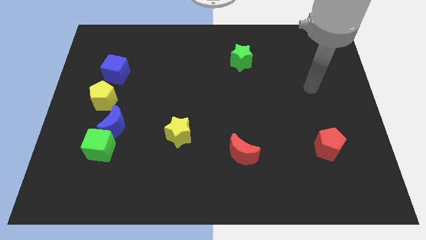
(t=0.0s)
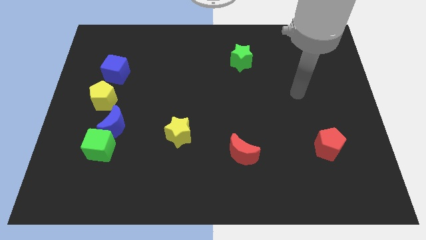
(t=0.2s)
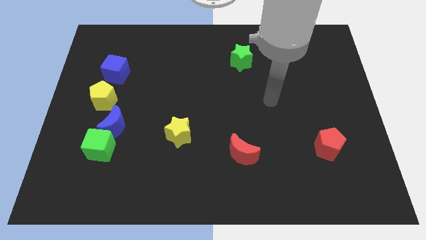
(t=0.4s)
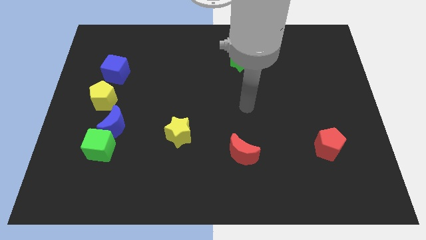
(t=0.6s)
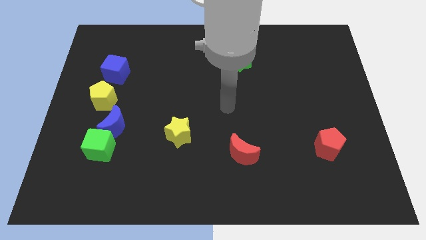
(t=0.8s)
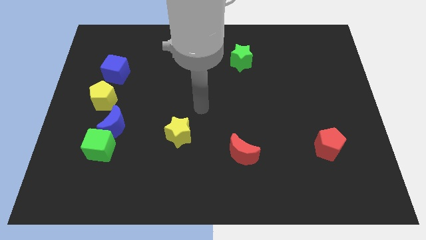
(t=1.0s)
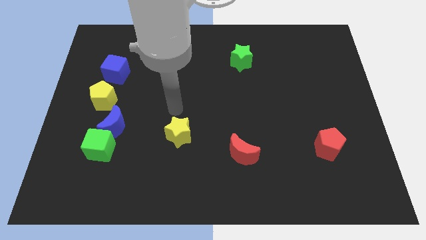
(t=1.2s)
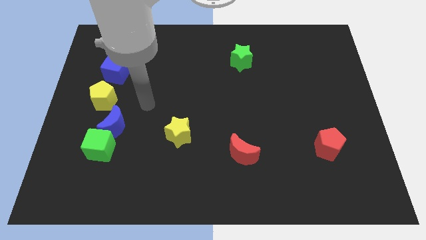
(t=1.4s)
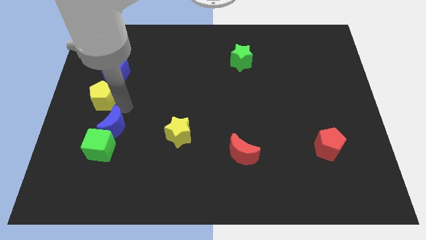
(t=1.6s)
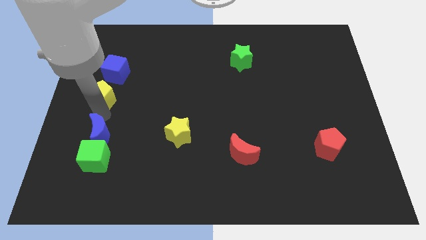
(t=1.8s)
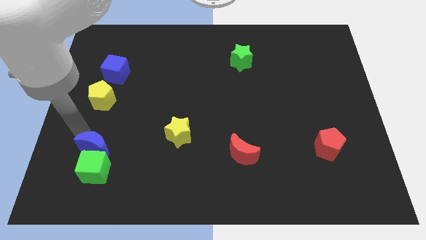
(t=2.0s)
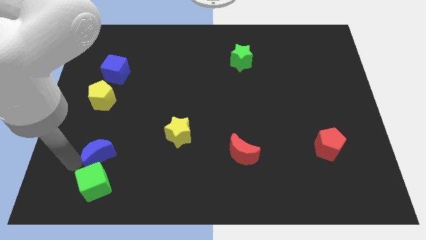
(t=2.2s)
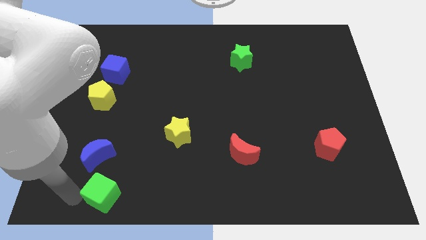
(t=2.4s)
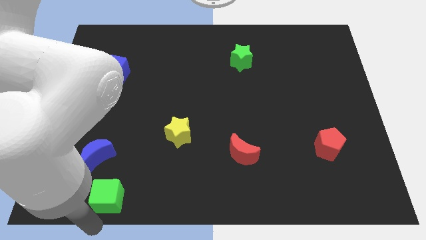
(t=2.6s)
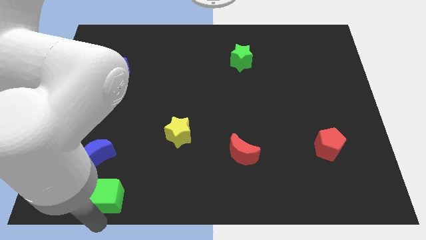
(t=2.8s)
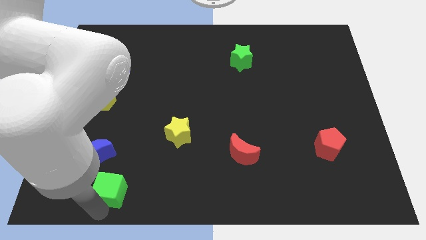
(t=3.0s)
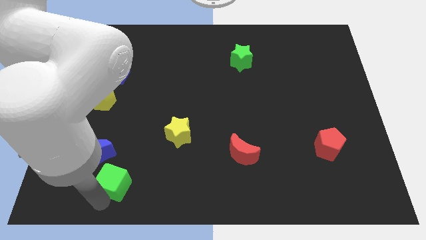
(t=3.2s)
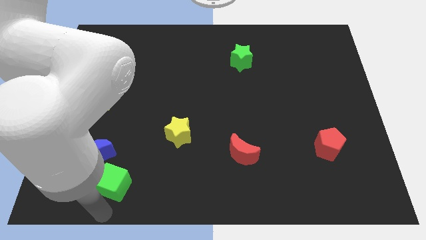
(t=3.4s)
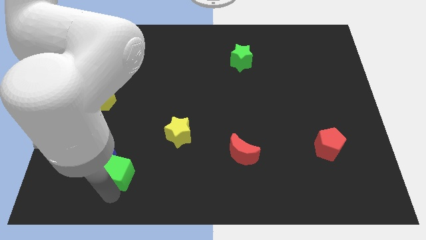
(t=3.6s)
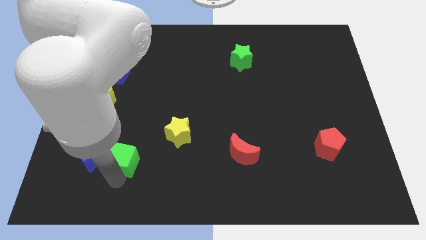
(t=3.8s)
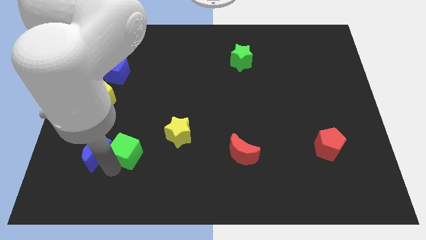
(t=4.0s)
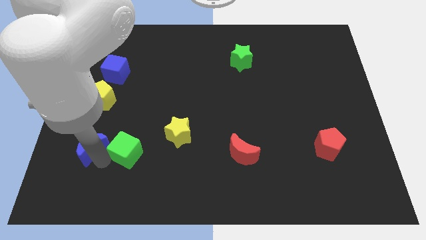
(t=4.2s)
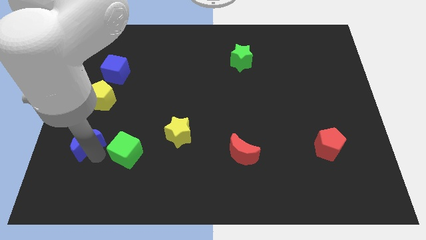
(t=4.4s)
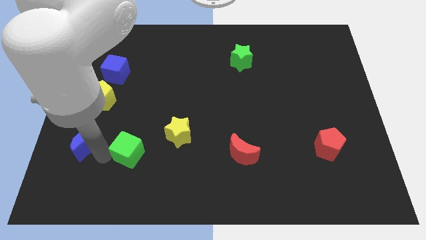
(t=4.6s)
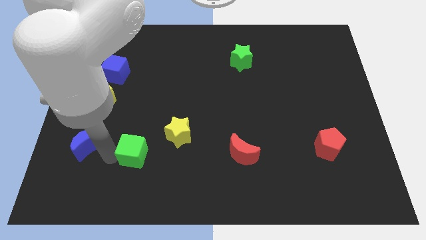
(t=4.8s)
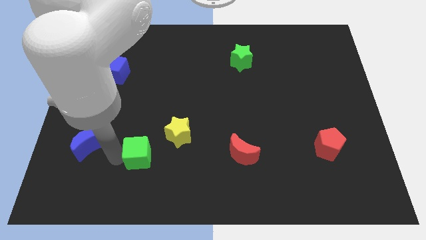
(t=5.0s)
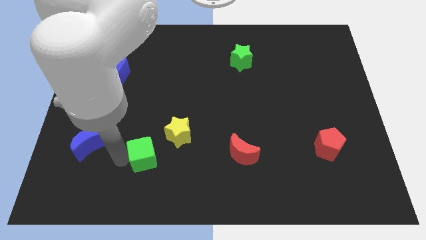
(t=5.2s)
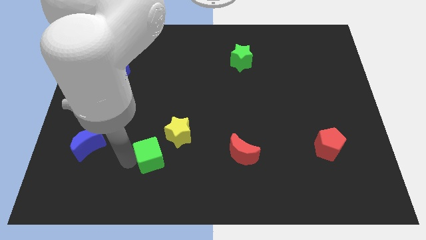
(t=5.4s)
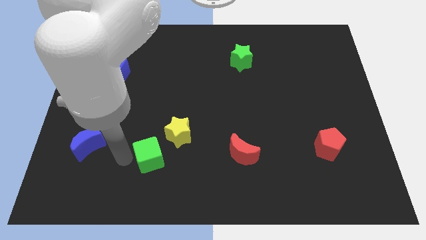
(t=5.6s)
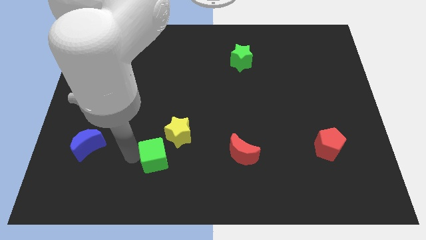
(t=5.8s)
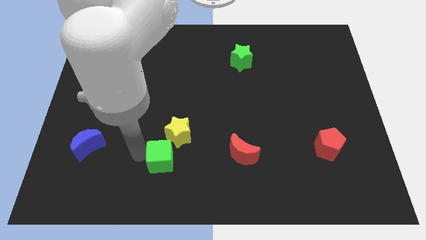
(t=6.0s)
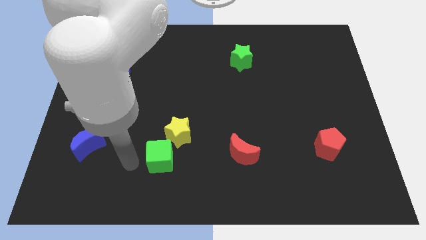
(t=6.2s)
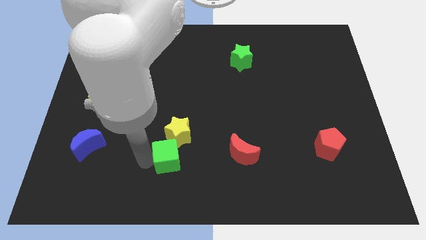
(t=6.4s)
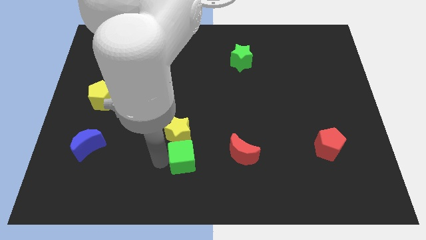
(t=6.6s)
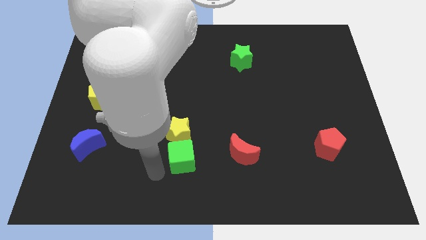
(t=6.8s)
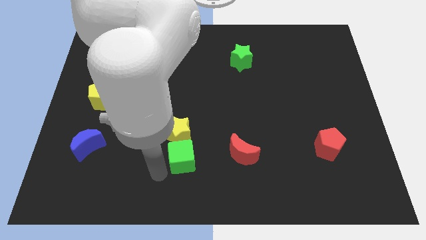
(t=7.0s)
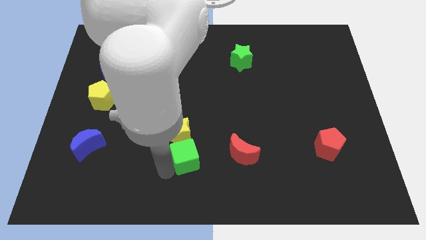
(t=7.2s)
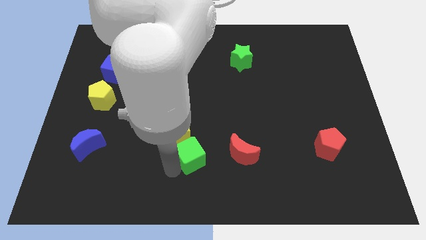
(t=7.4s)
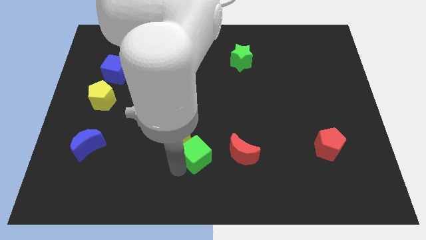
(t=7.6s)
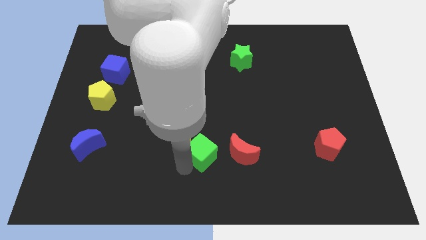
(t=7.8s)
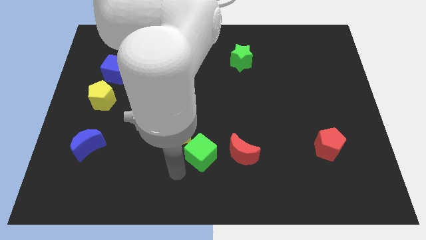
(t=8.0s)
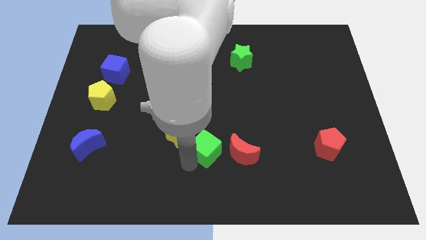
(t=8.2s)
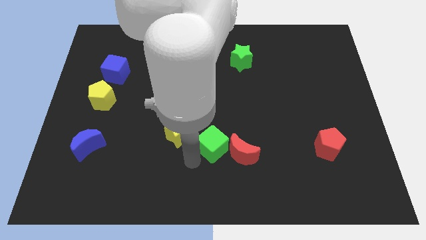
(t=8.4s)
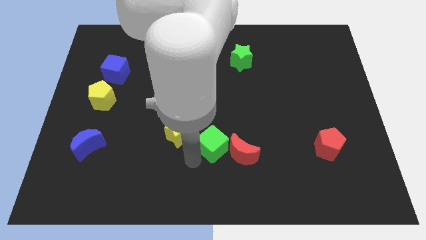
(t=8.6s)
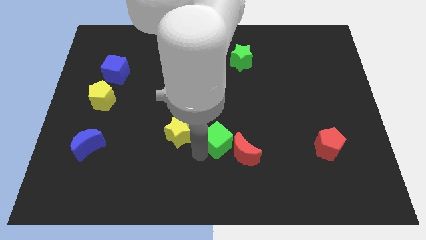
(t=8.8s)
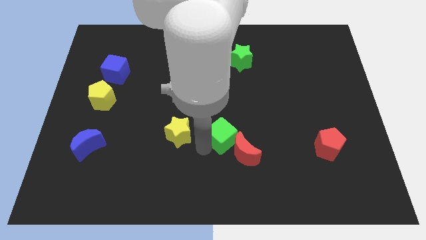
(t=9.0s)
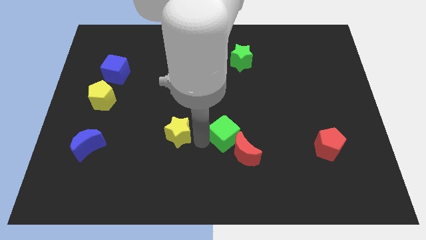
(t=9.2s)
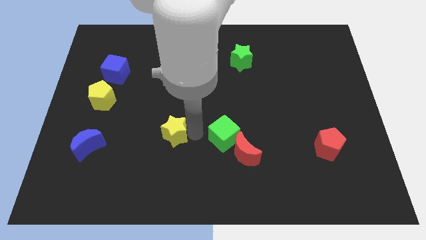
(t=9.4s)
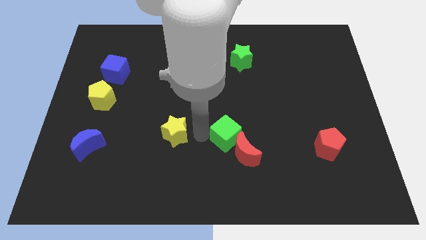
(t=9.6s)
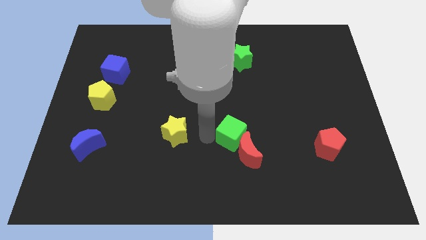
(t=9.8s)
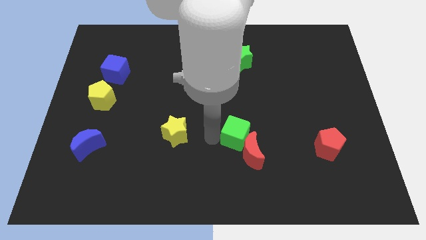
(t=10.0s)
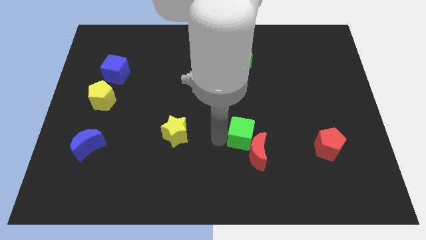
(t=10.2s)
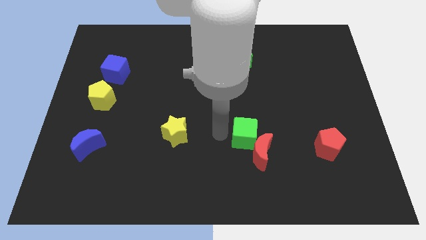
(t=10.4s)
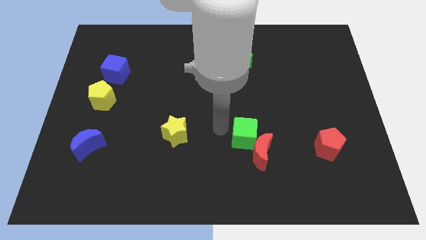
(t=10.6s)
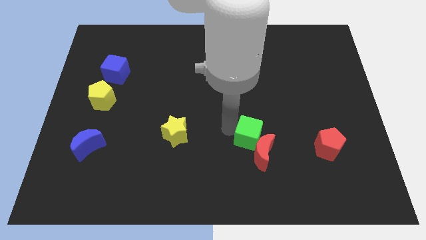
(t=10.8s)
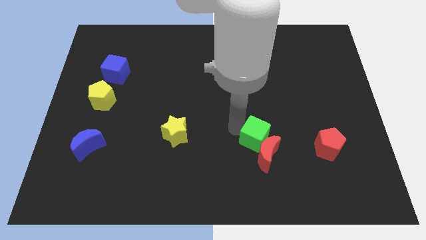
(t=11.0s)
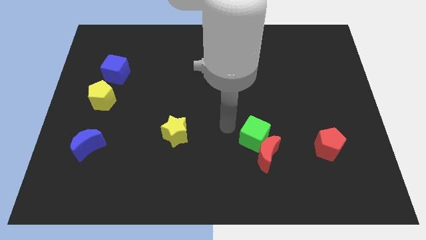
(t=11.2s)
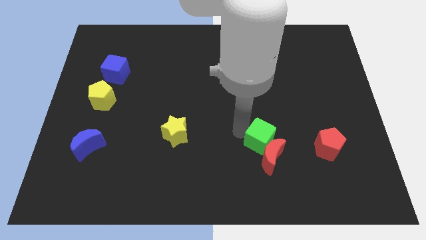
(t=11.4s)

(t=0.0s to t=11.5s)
slide the green cube to the left of the red pentagon

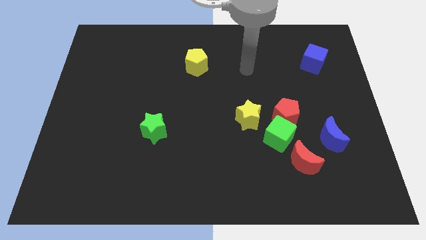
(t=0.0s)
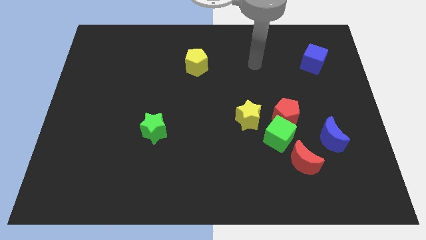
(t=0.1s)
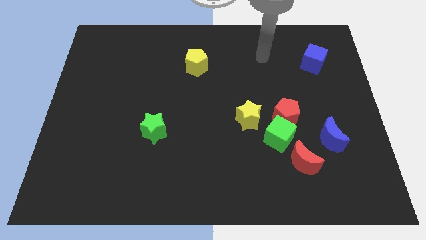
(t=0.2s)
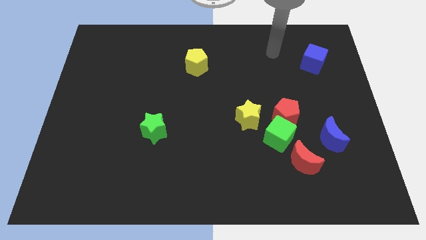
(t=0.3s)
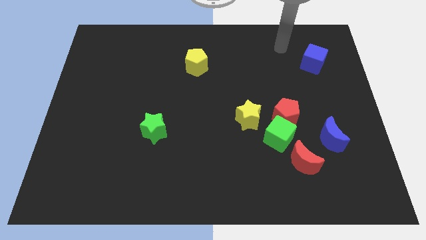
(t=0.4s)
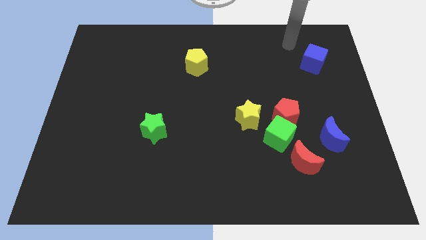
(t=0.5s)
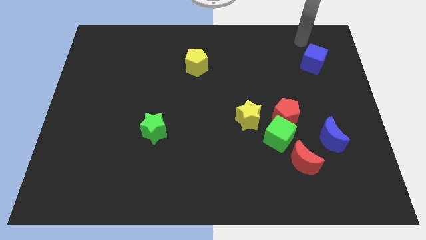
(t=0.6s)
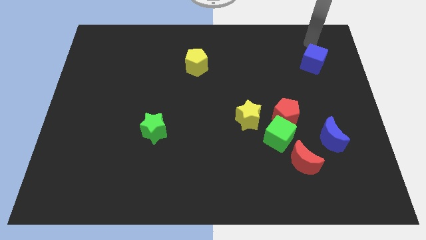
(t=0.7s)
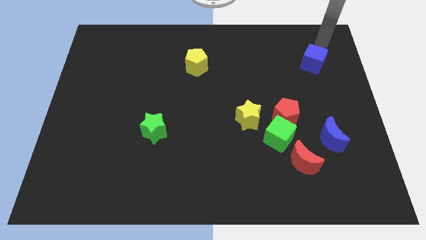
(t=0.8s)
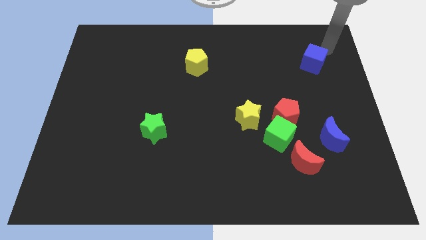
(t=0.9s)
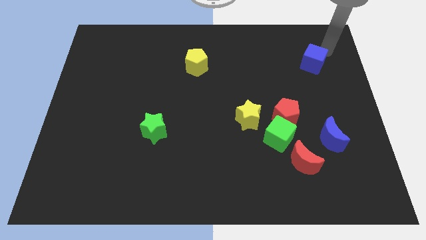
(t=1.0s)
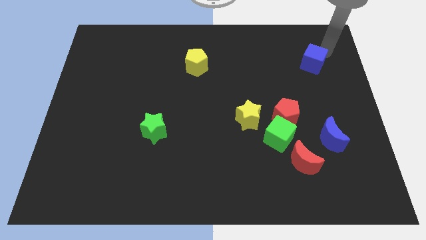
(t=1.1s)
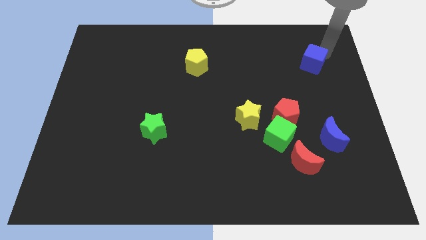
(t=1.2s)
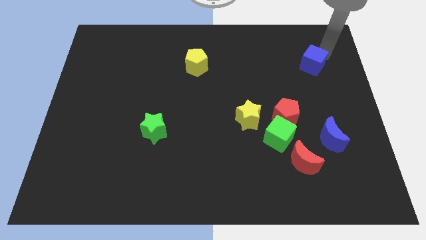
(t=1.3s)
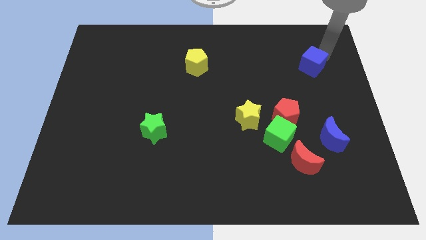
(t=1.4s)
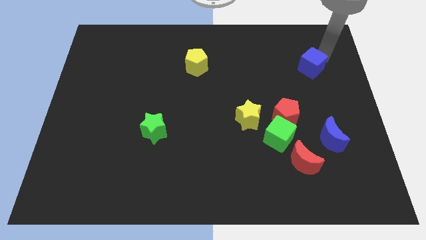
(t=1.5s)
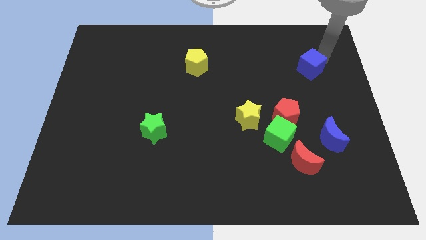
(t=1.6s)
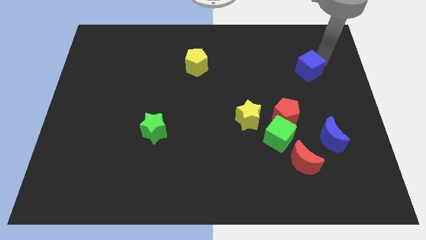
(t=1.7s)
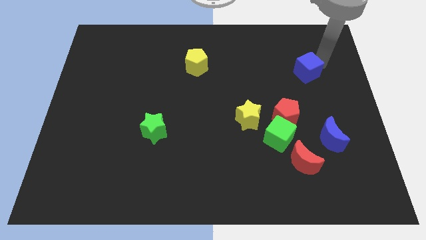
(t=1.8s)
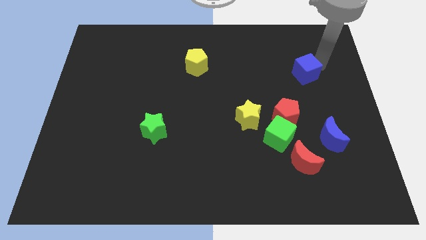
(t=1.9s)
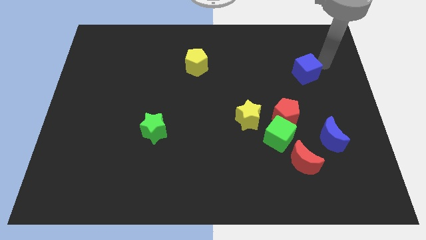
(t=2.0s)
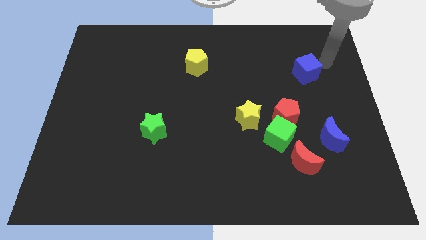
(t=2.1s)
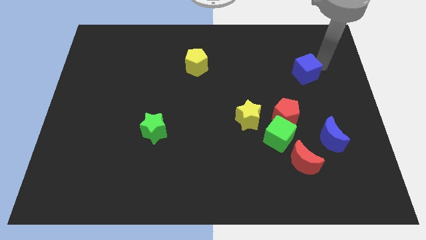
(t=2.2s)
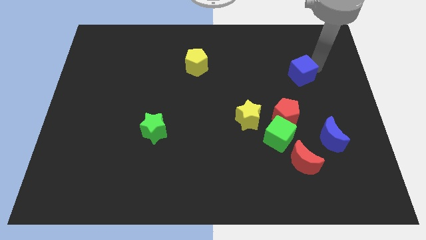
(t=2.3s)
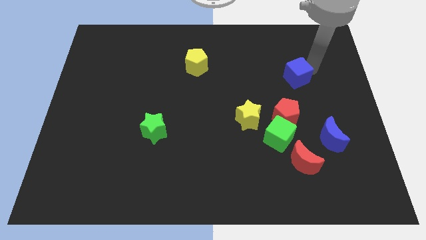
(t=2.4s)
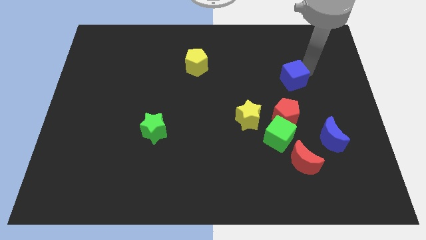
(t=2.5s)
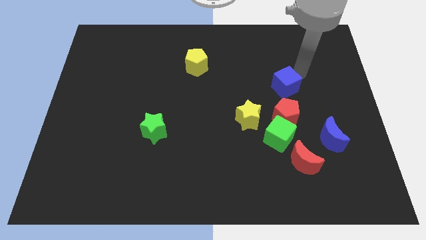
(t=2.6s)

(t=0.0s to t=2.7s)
put the blue cube above the green cube
